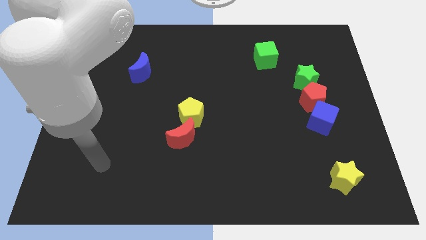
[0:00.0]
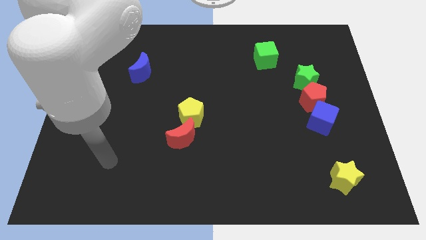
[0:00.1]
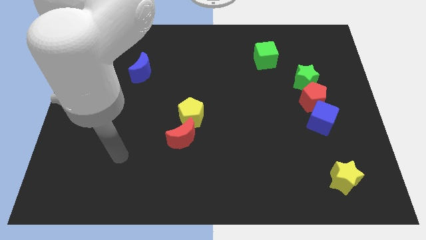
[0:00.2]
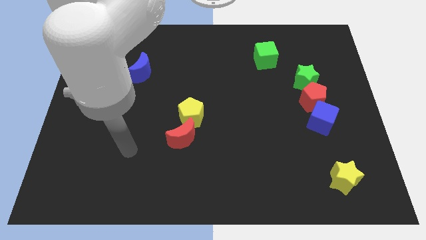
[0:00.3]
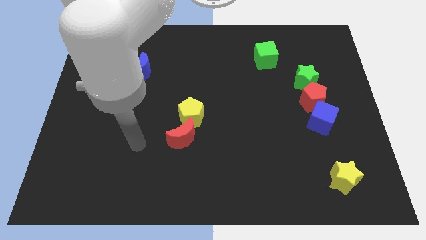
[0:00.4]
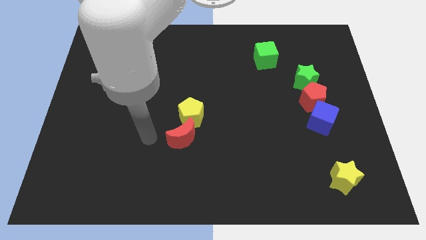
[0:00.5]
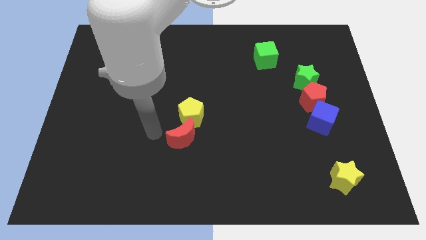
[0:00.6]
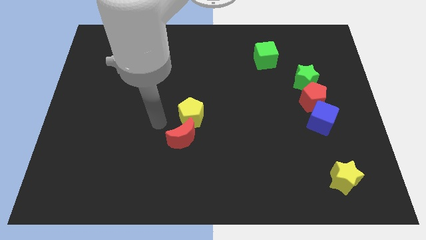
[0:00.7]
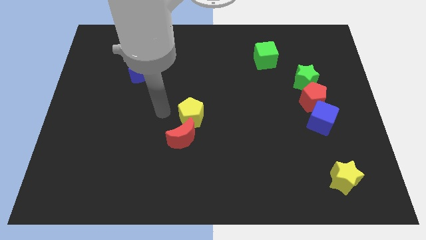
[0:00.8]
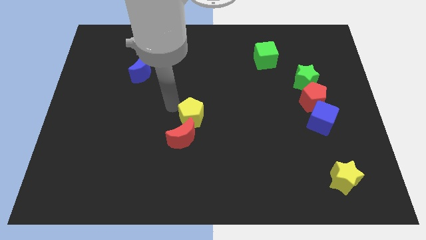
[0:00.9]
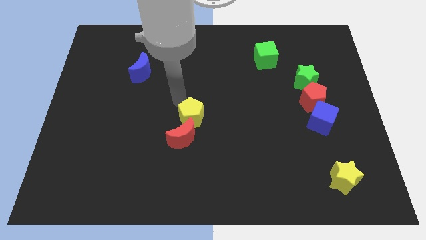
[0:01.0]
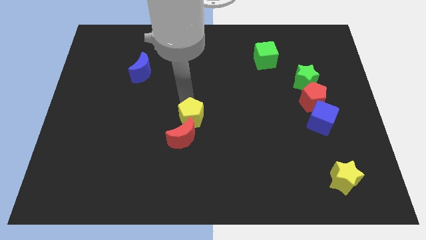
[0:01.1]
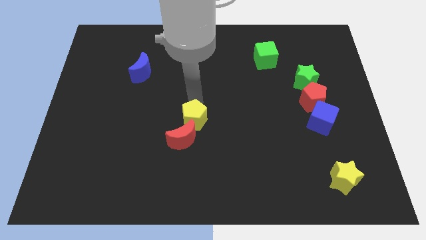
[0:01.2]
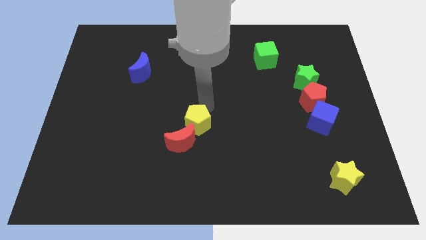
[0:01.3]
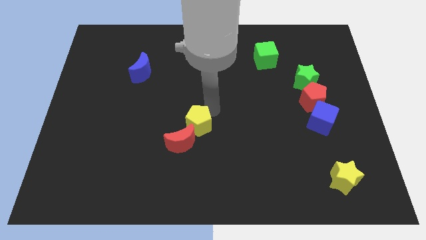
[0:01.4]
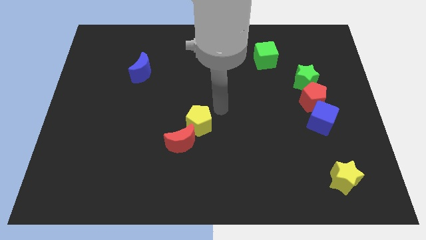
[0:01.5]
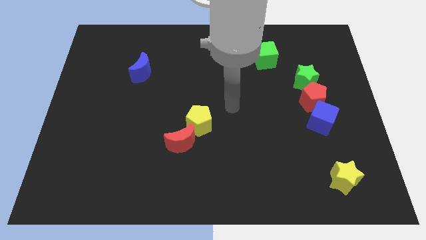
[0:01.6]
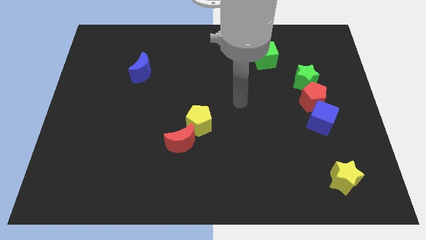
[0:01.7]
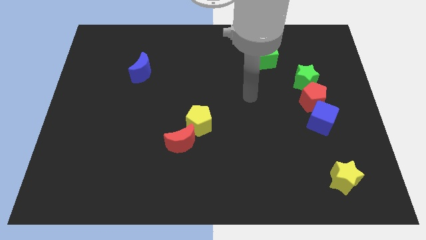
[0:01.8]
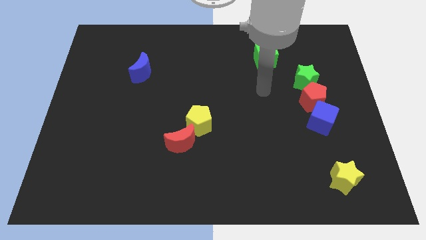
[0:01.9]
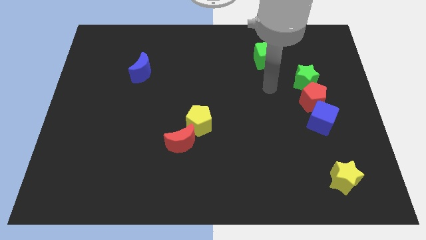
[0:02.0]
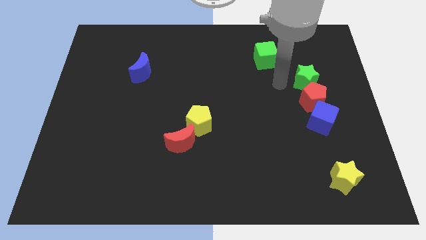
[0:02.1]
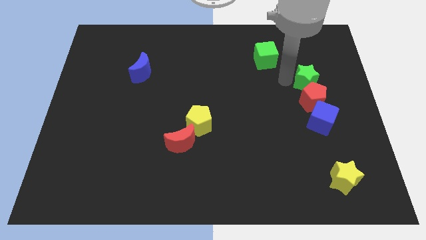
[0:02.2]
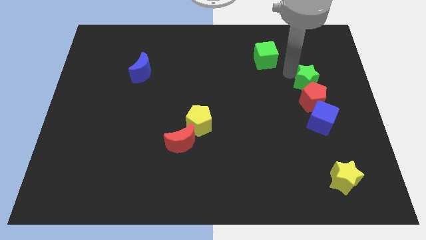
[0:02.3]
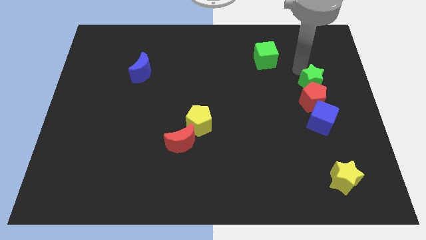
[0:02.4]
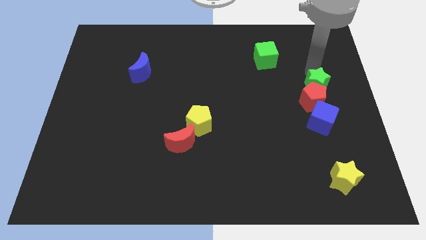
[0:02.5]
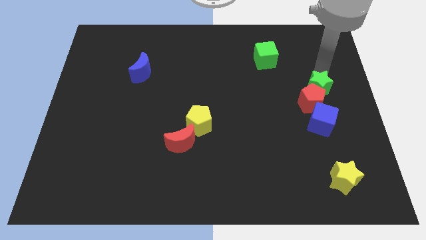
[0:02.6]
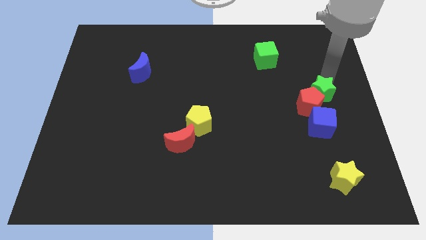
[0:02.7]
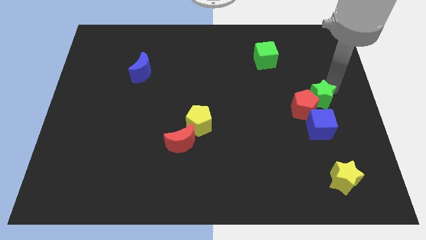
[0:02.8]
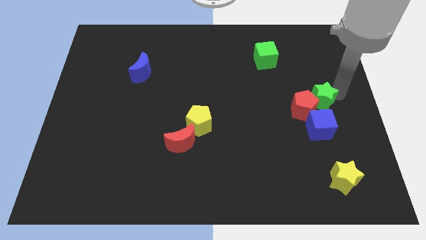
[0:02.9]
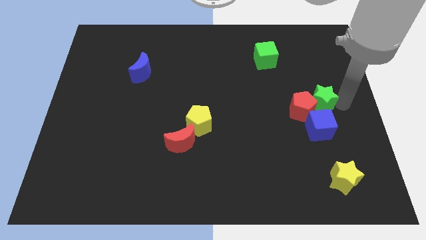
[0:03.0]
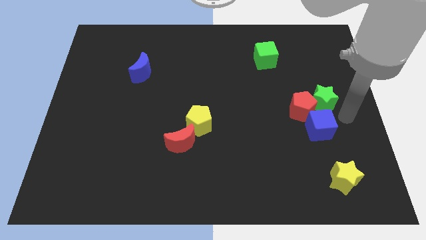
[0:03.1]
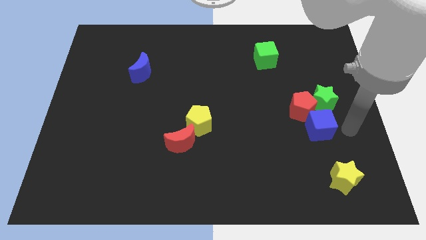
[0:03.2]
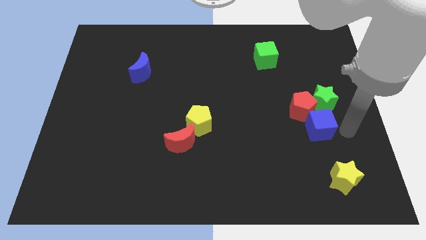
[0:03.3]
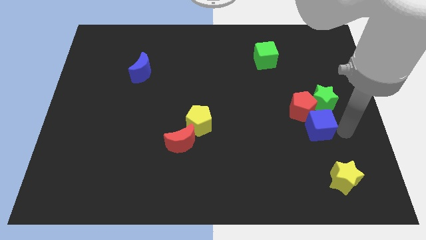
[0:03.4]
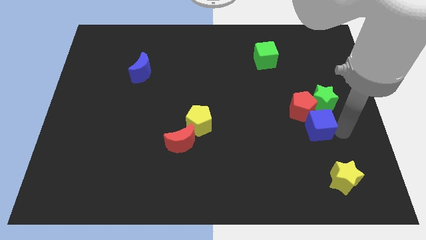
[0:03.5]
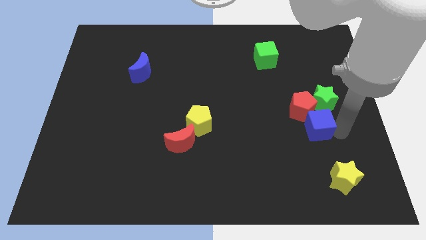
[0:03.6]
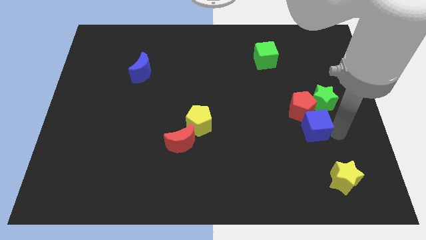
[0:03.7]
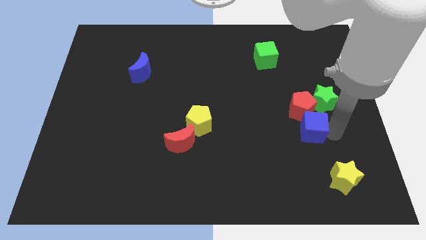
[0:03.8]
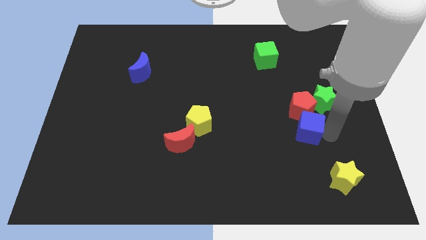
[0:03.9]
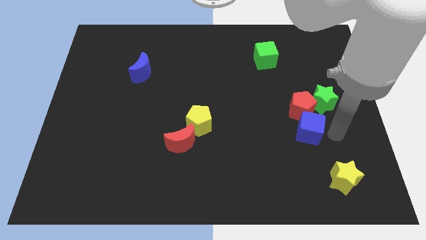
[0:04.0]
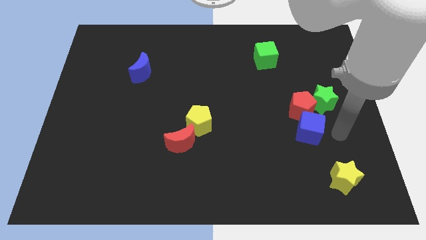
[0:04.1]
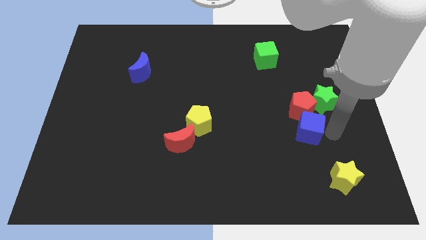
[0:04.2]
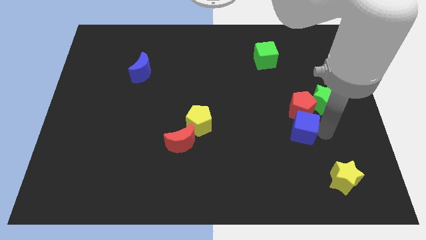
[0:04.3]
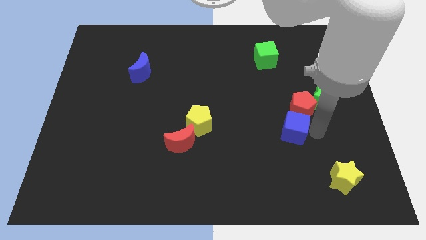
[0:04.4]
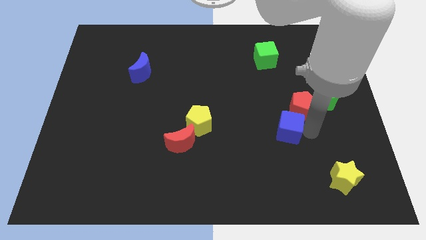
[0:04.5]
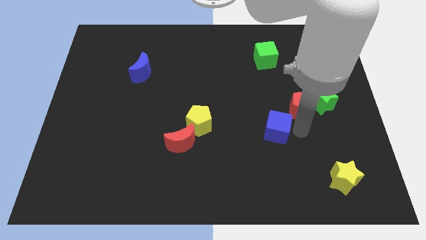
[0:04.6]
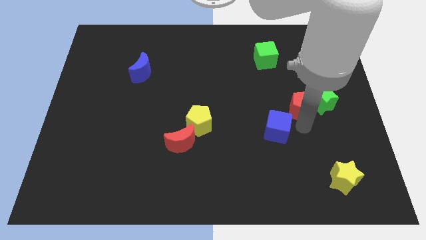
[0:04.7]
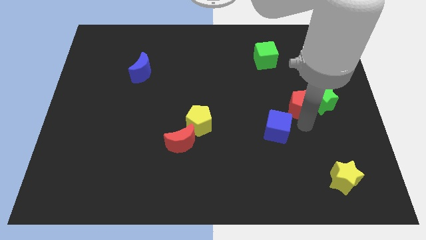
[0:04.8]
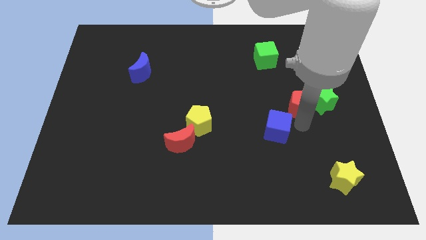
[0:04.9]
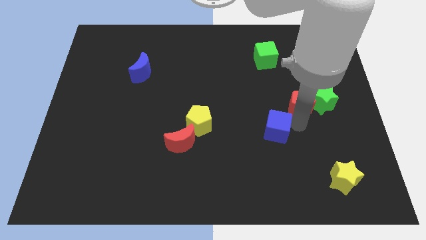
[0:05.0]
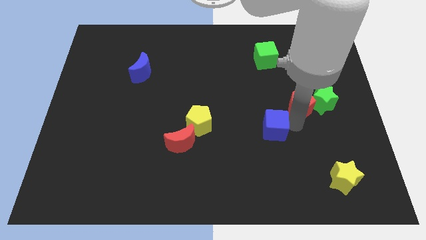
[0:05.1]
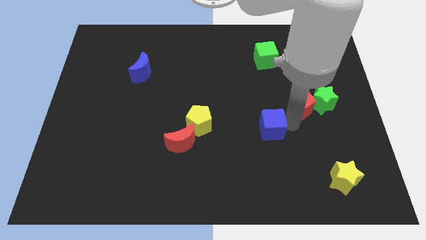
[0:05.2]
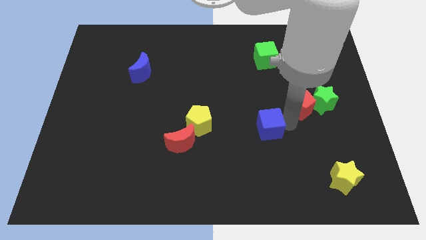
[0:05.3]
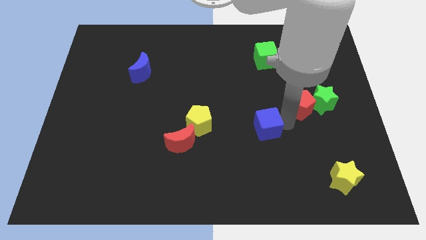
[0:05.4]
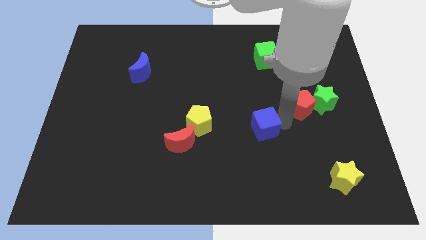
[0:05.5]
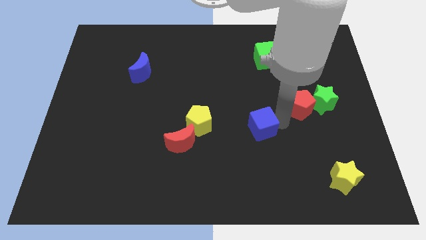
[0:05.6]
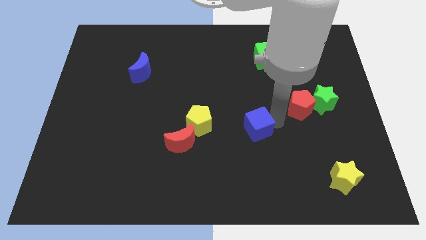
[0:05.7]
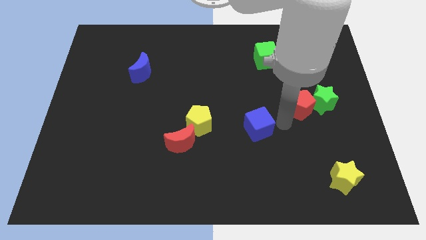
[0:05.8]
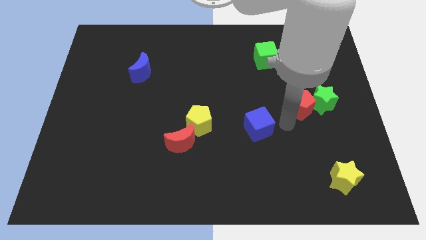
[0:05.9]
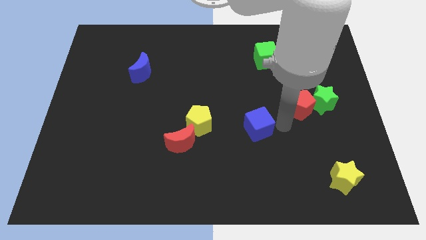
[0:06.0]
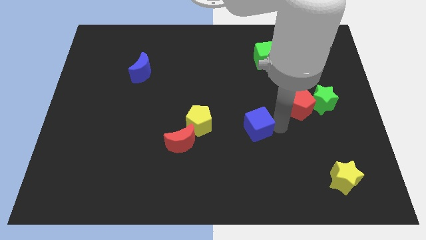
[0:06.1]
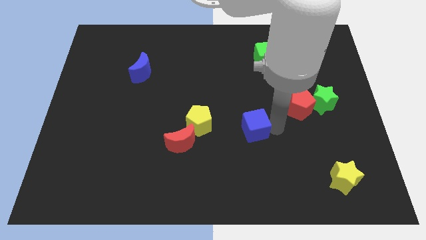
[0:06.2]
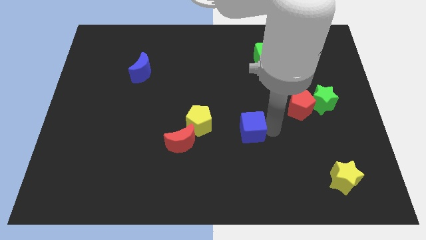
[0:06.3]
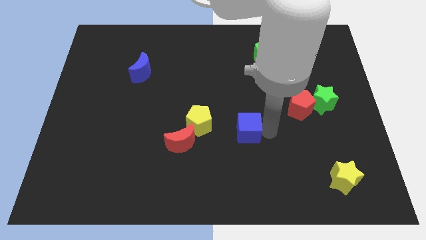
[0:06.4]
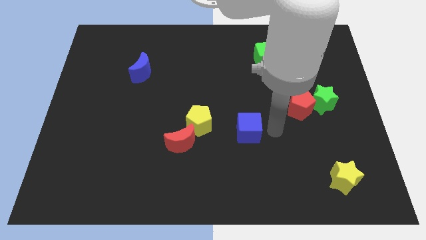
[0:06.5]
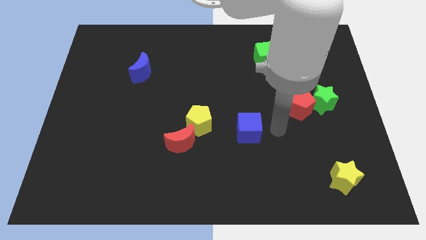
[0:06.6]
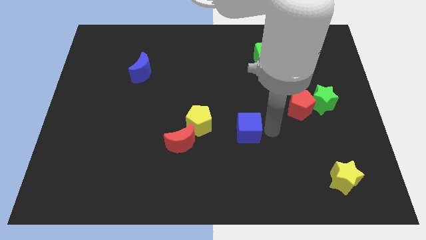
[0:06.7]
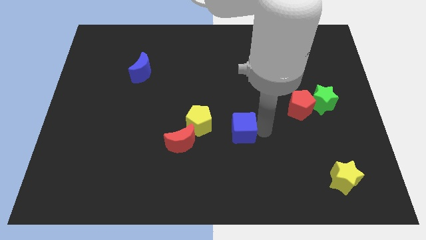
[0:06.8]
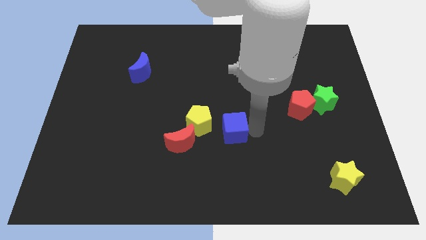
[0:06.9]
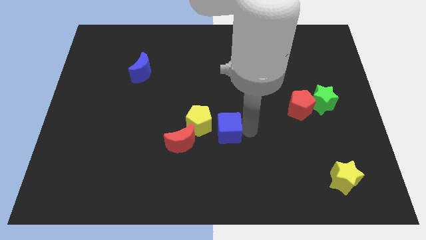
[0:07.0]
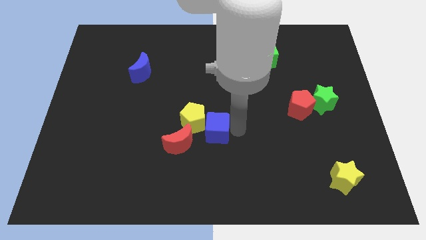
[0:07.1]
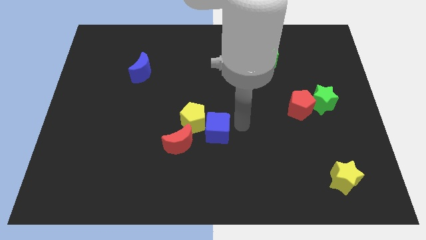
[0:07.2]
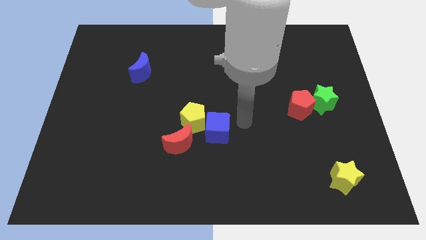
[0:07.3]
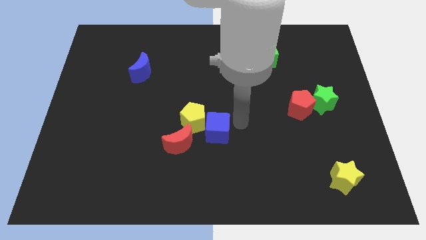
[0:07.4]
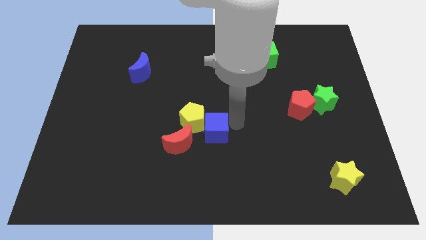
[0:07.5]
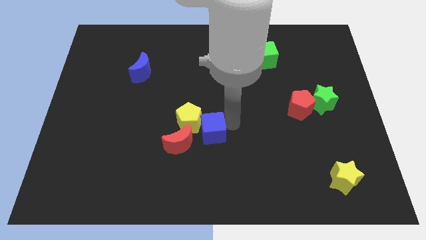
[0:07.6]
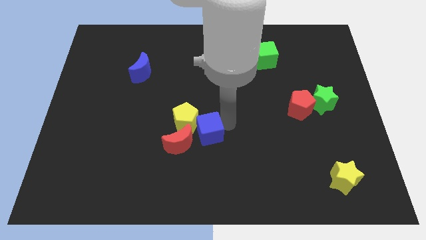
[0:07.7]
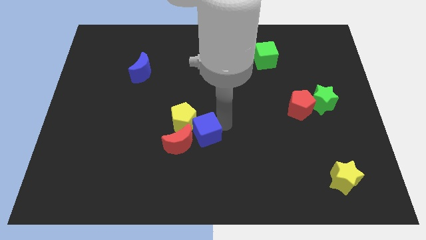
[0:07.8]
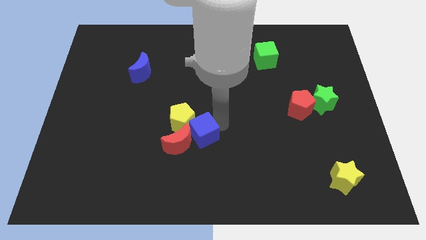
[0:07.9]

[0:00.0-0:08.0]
put the blue cube towards the red moon
